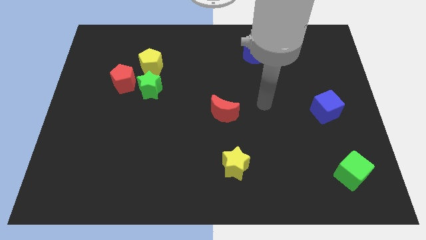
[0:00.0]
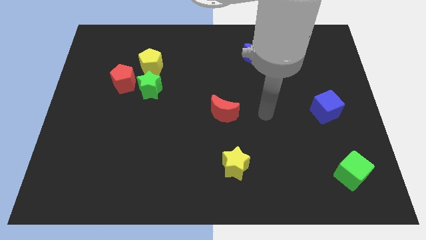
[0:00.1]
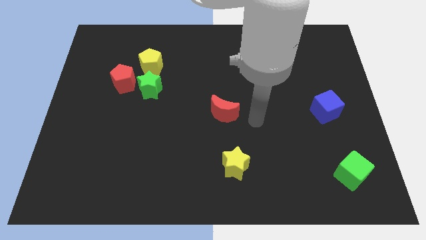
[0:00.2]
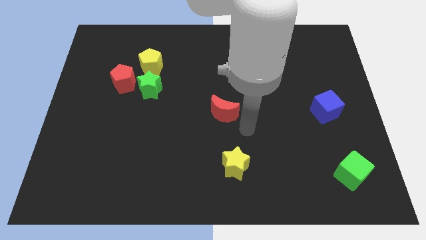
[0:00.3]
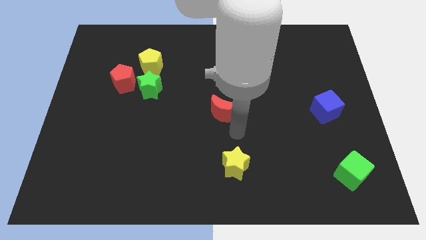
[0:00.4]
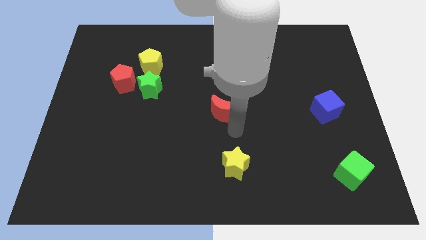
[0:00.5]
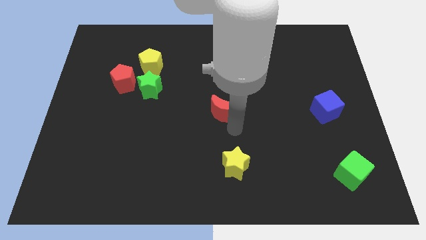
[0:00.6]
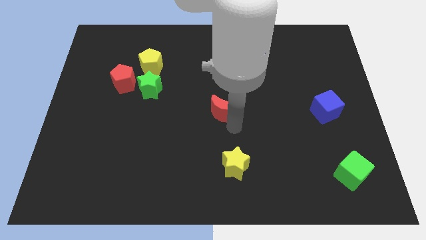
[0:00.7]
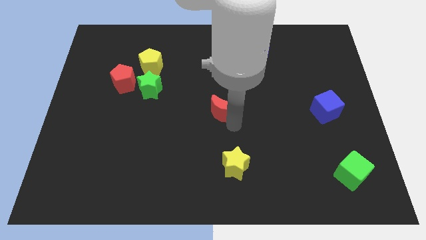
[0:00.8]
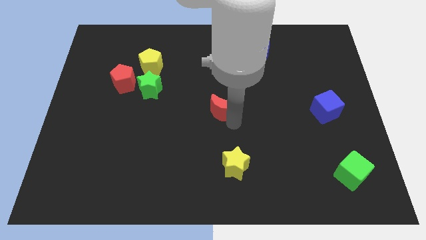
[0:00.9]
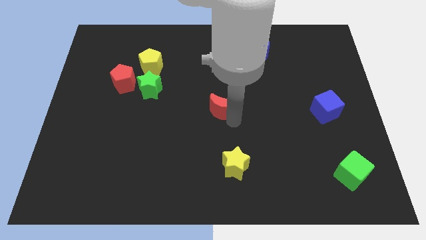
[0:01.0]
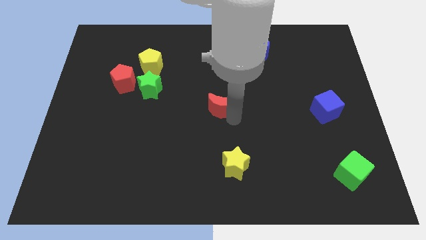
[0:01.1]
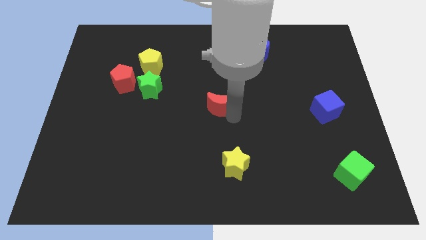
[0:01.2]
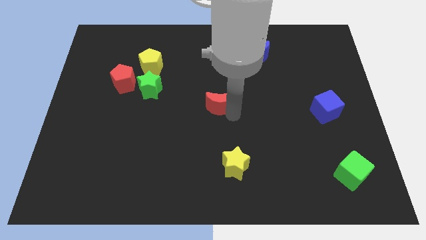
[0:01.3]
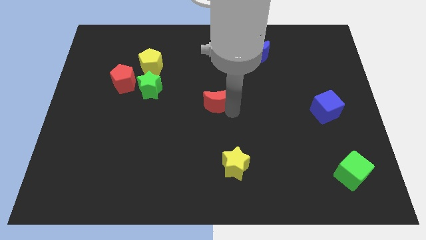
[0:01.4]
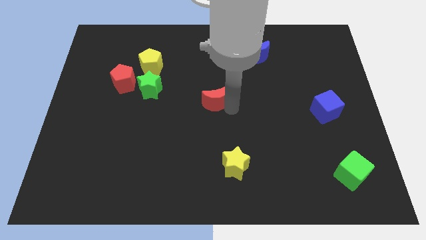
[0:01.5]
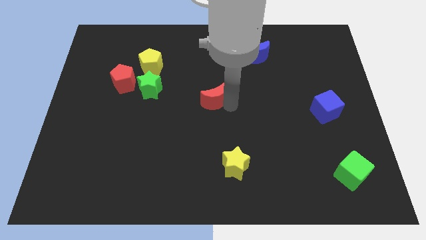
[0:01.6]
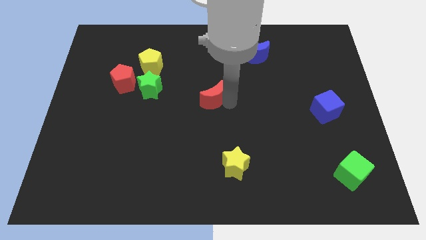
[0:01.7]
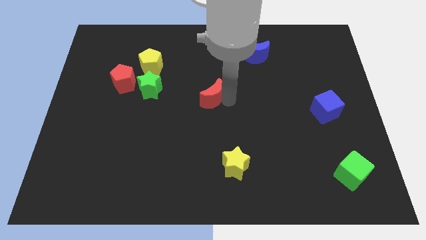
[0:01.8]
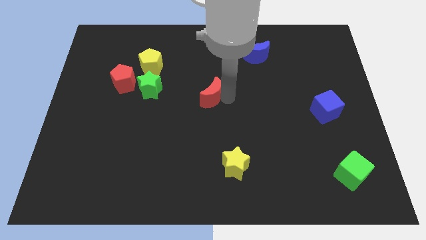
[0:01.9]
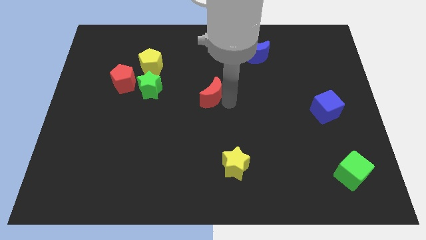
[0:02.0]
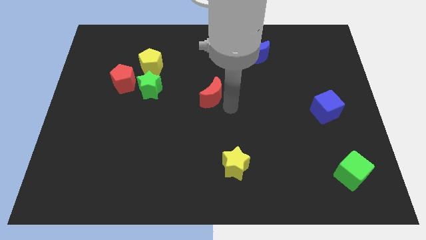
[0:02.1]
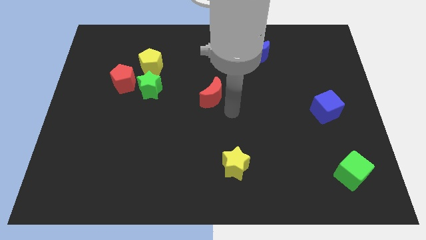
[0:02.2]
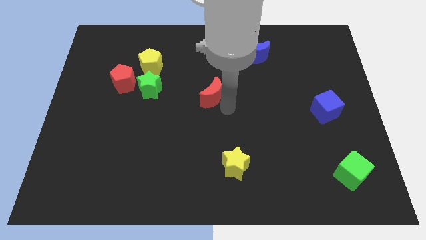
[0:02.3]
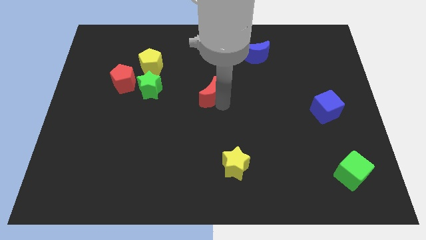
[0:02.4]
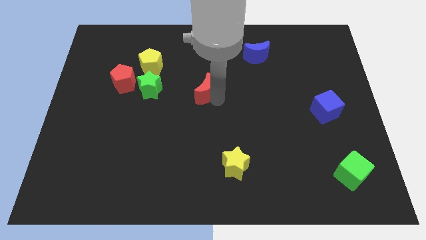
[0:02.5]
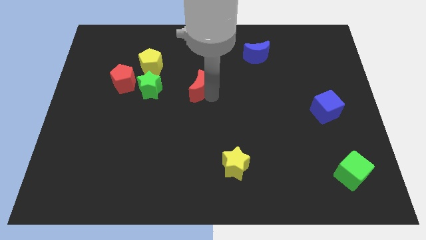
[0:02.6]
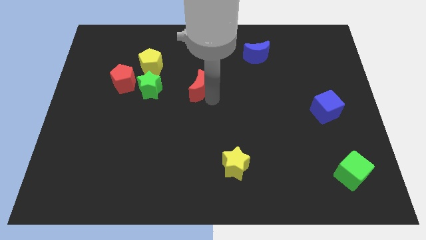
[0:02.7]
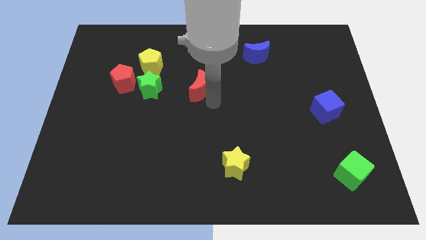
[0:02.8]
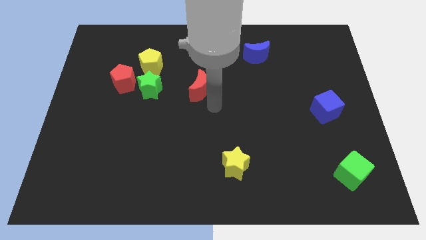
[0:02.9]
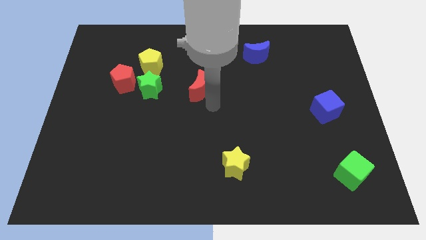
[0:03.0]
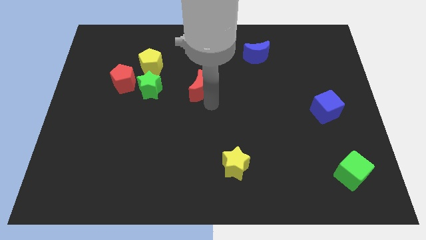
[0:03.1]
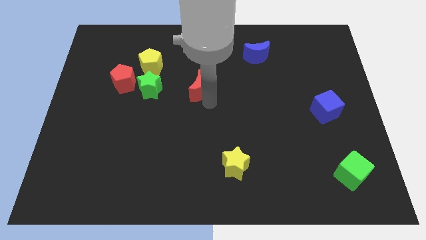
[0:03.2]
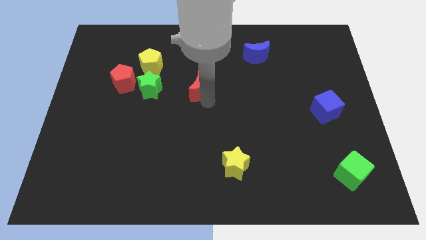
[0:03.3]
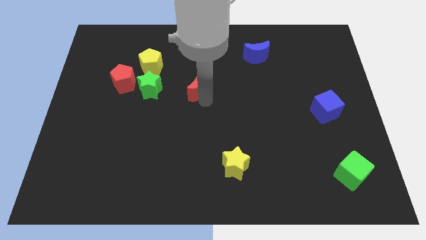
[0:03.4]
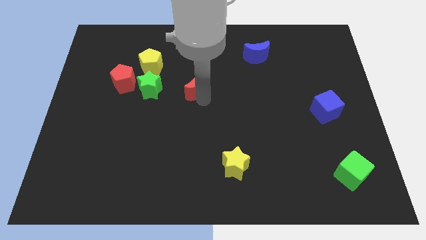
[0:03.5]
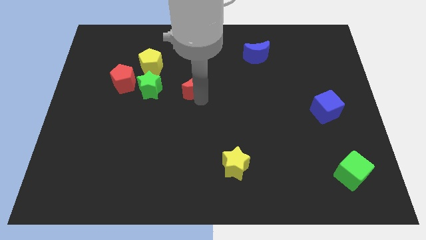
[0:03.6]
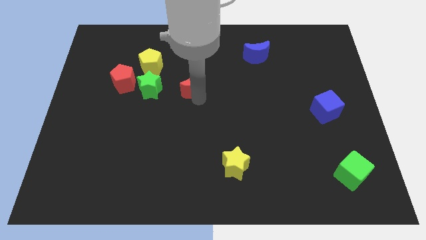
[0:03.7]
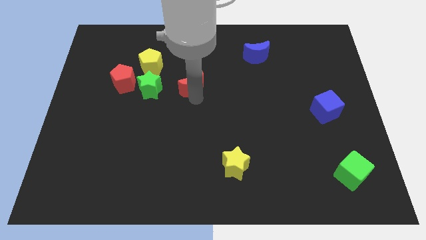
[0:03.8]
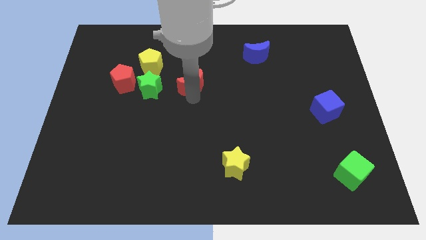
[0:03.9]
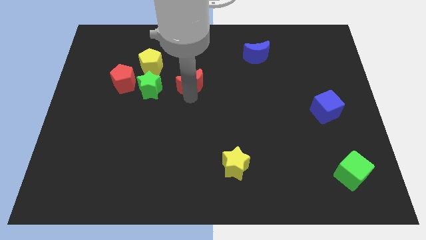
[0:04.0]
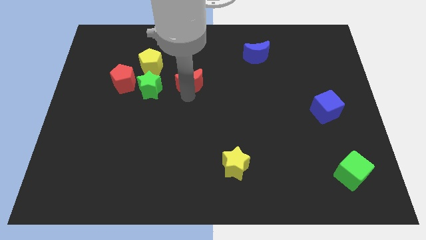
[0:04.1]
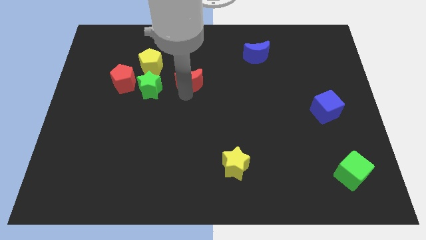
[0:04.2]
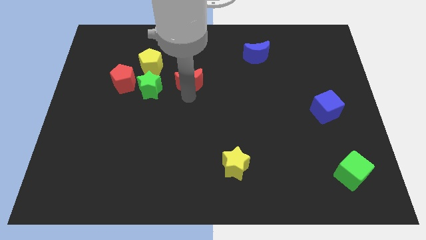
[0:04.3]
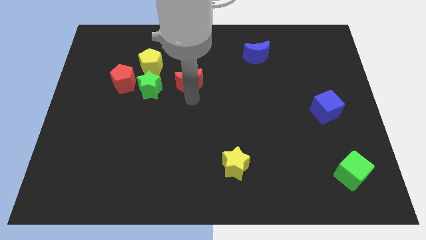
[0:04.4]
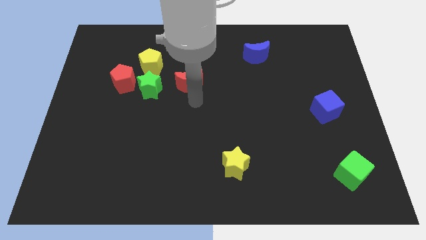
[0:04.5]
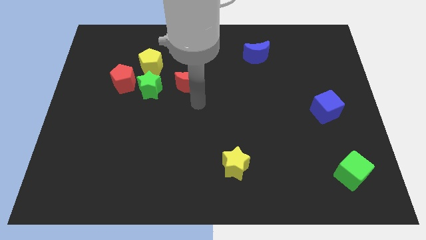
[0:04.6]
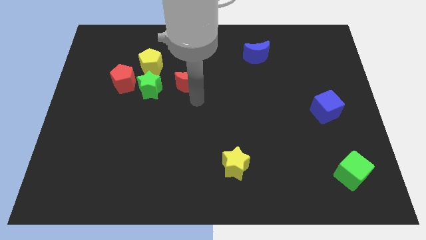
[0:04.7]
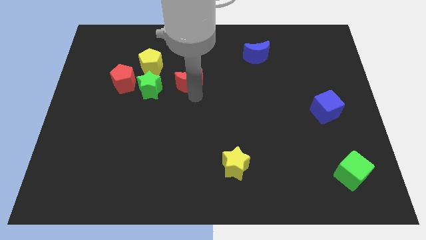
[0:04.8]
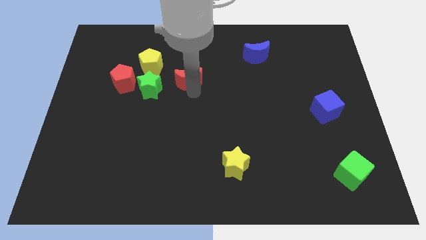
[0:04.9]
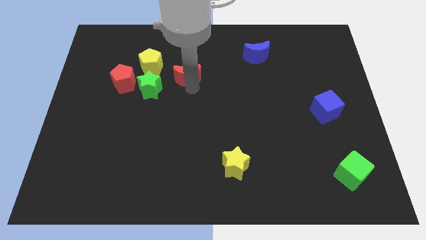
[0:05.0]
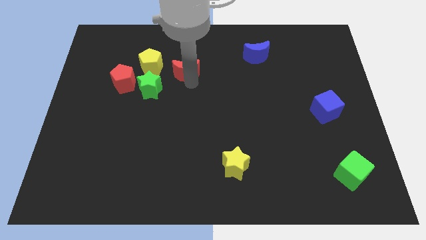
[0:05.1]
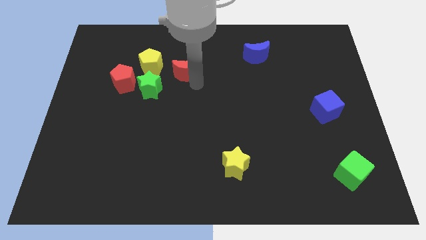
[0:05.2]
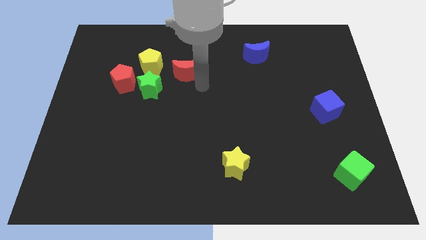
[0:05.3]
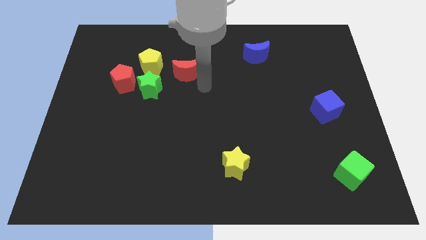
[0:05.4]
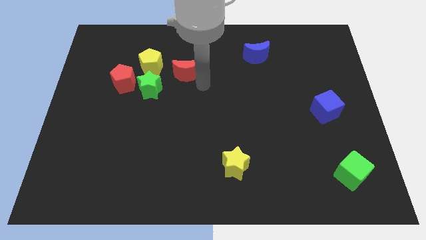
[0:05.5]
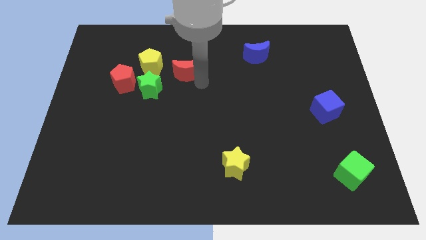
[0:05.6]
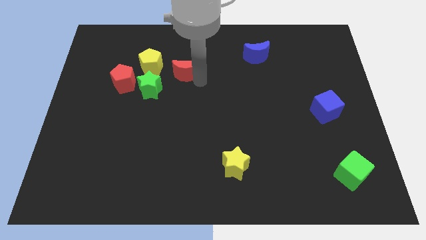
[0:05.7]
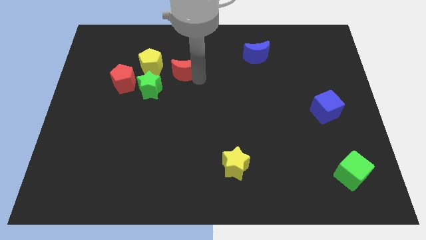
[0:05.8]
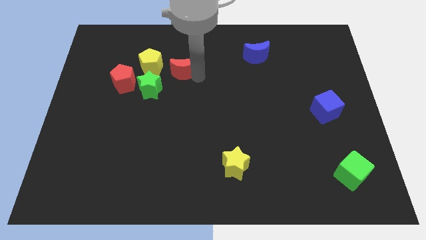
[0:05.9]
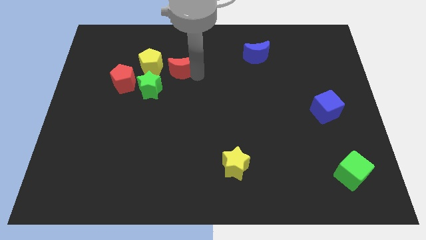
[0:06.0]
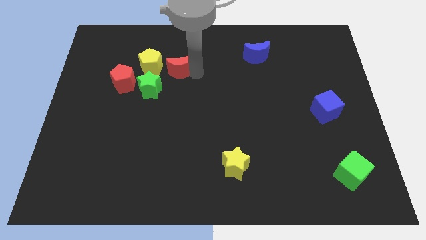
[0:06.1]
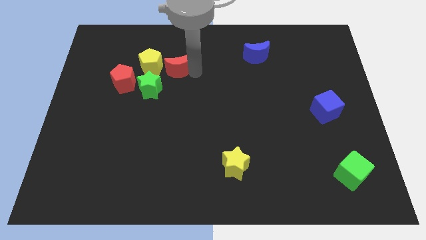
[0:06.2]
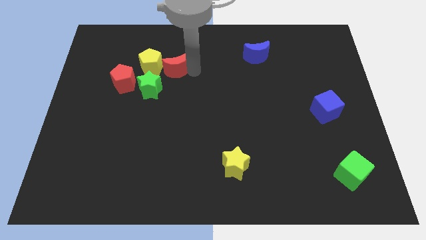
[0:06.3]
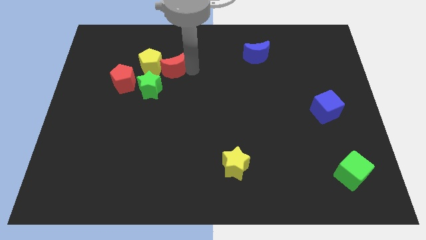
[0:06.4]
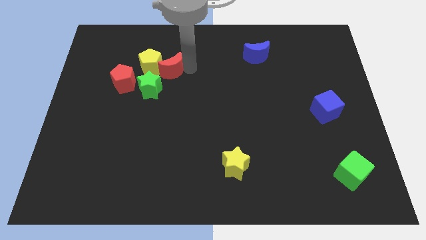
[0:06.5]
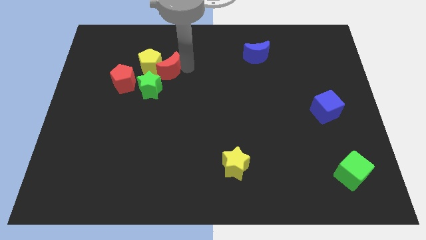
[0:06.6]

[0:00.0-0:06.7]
put the red moon to the top of the green star

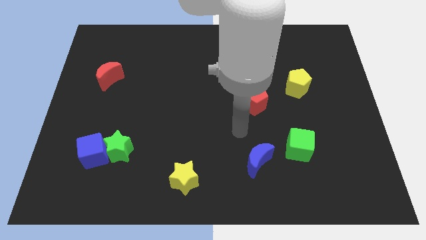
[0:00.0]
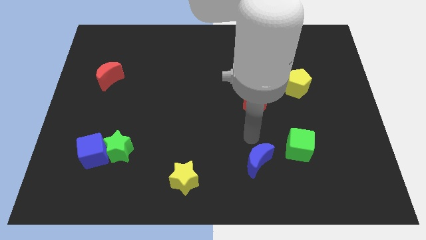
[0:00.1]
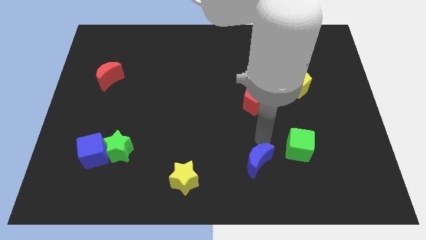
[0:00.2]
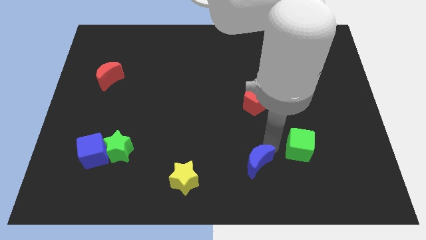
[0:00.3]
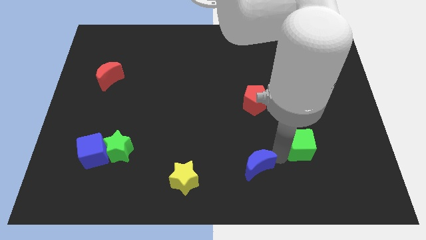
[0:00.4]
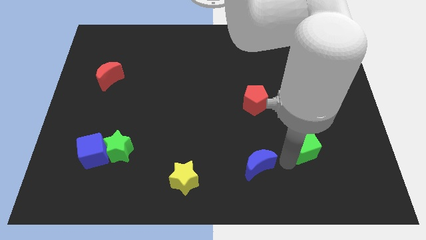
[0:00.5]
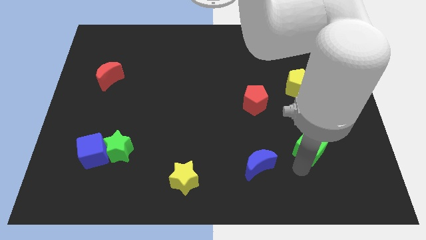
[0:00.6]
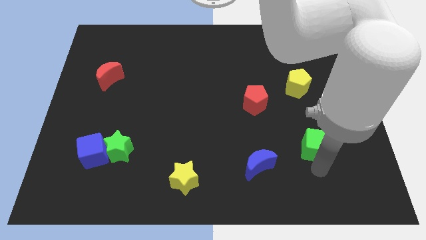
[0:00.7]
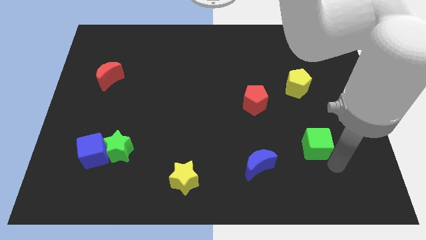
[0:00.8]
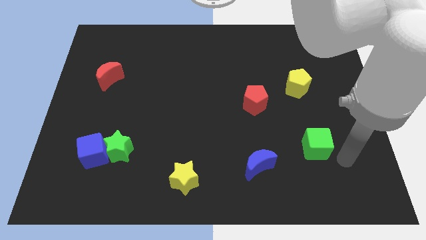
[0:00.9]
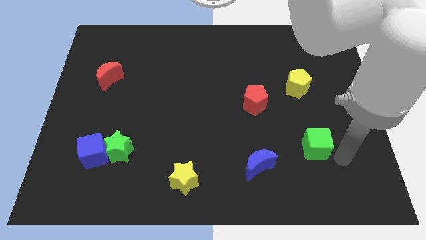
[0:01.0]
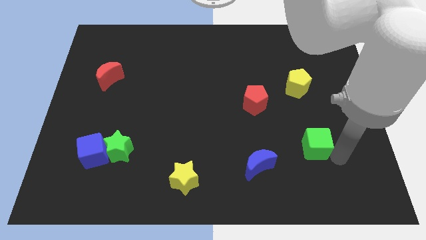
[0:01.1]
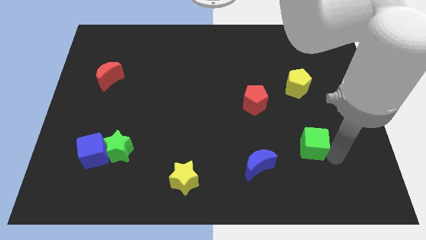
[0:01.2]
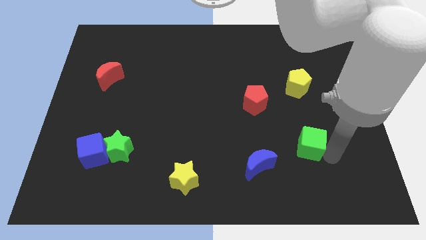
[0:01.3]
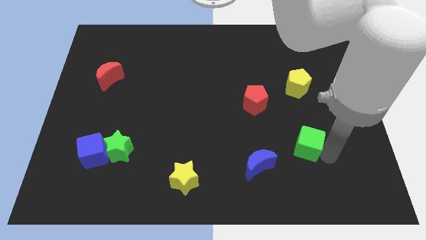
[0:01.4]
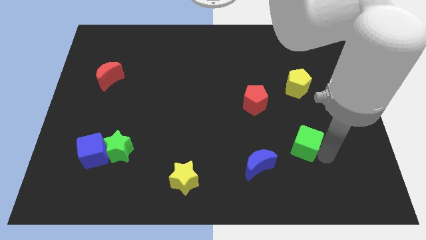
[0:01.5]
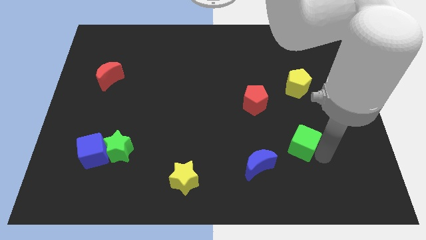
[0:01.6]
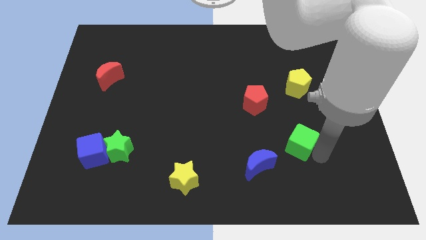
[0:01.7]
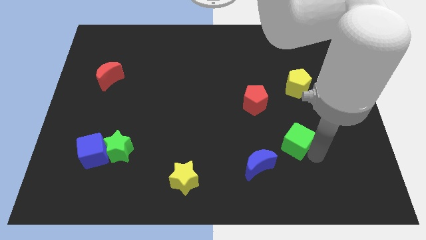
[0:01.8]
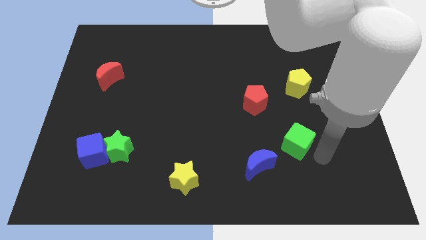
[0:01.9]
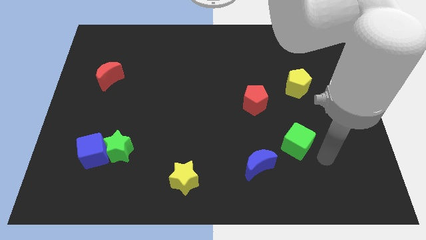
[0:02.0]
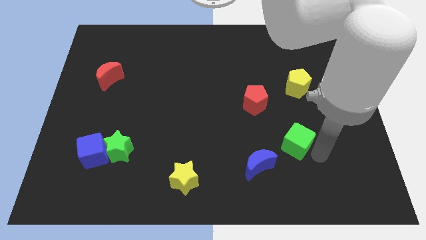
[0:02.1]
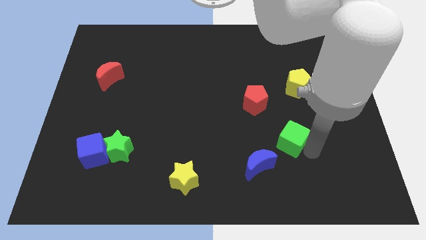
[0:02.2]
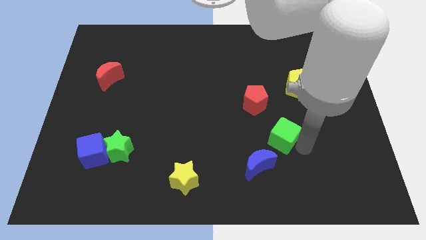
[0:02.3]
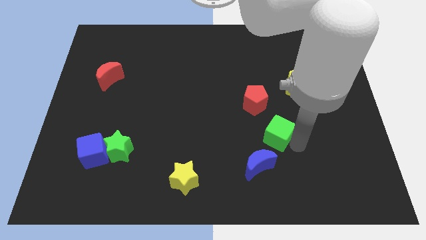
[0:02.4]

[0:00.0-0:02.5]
slide the green cube to the top of the blue moon
